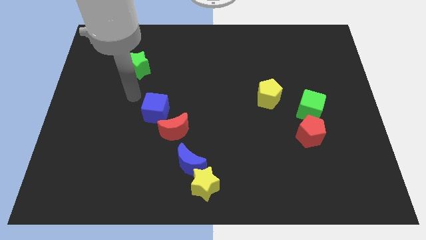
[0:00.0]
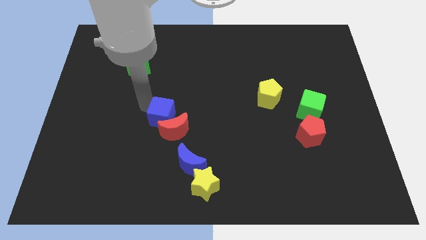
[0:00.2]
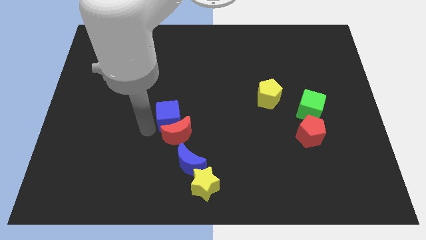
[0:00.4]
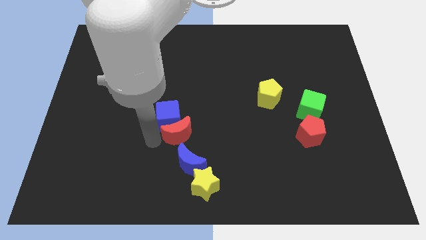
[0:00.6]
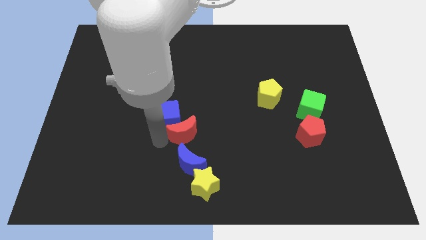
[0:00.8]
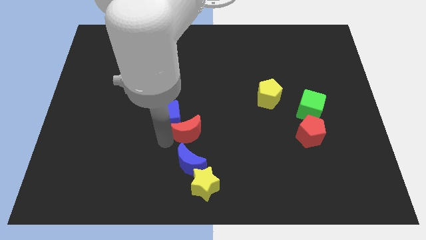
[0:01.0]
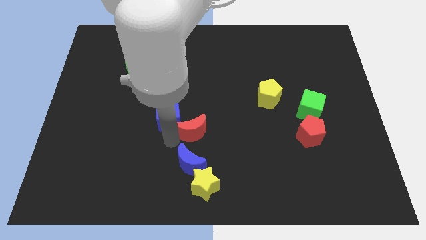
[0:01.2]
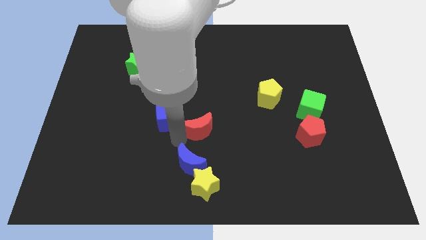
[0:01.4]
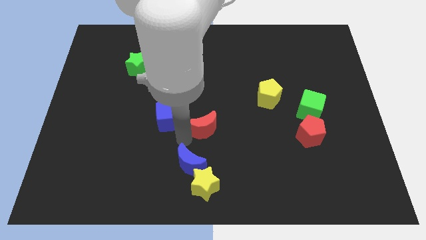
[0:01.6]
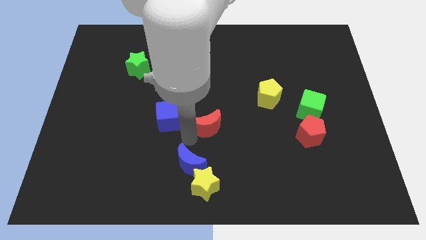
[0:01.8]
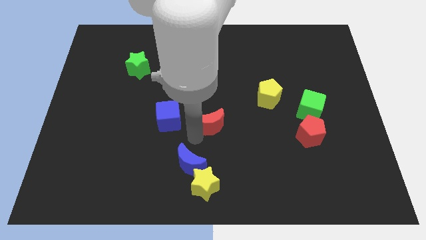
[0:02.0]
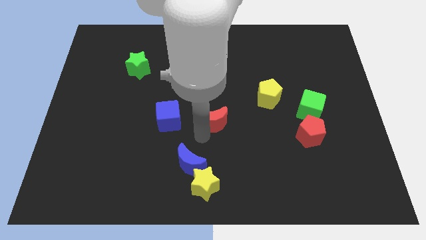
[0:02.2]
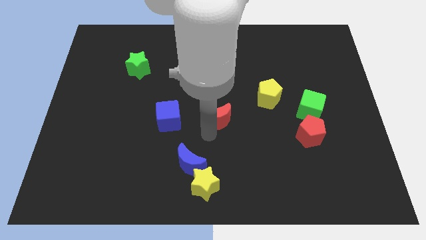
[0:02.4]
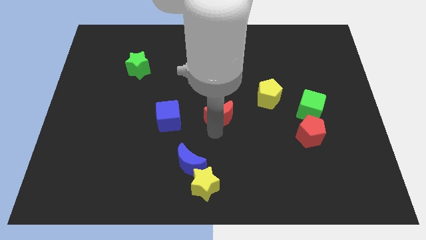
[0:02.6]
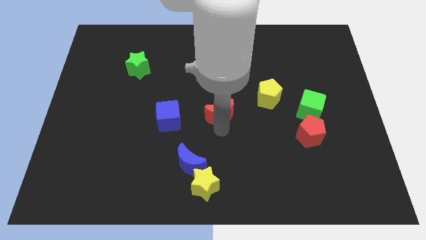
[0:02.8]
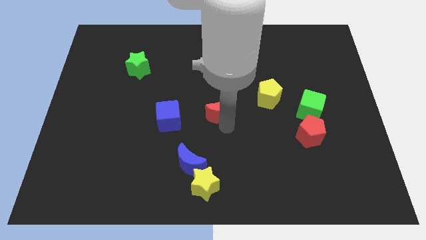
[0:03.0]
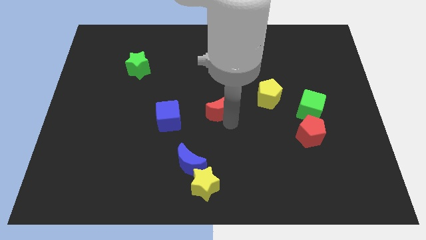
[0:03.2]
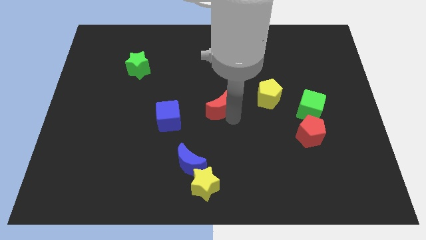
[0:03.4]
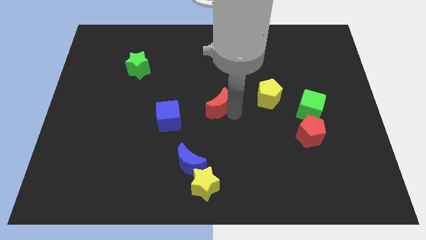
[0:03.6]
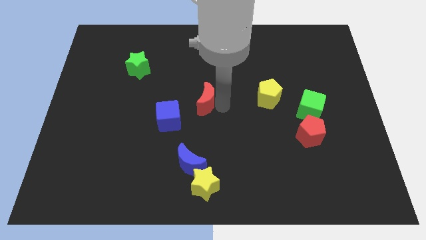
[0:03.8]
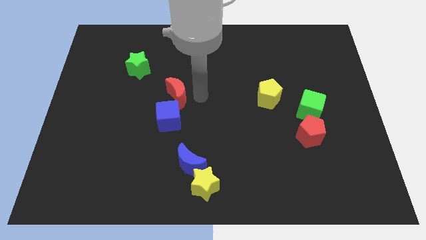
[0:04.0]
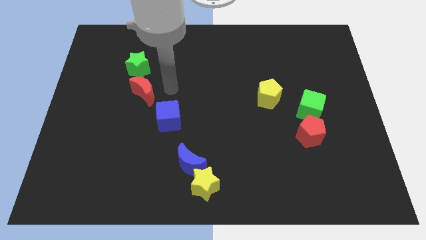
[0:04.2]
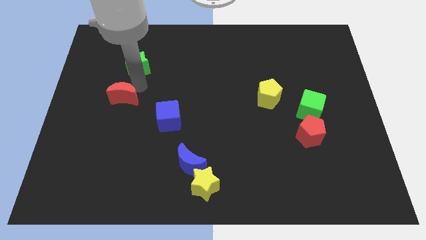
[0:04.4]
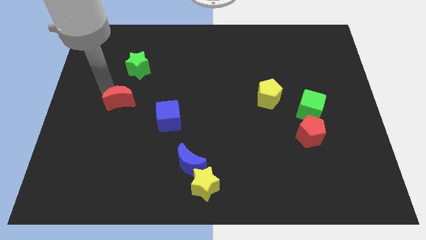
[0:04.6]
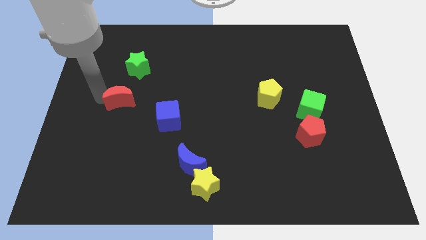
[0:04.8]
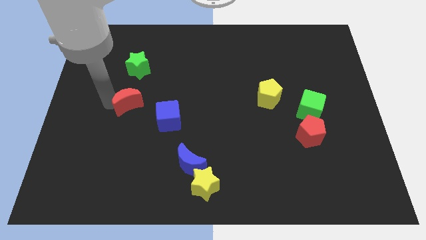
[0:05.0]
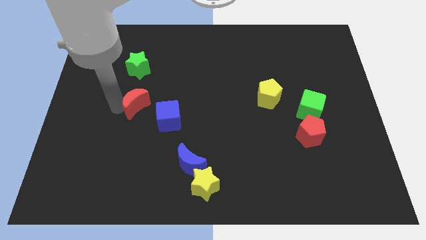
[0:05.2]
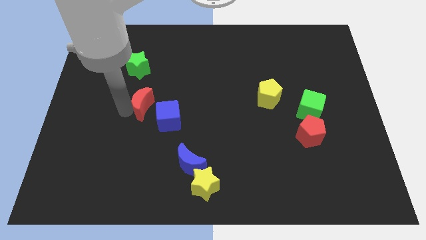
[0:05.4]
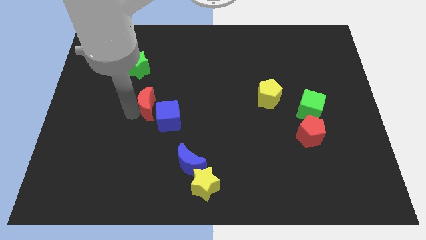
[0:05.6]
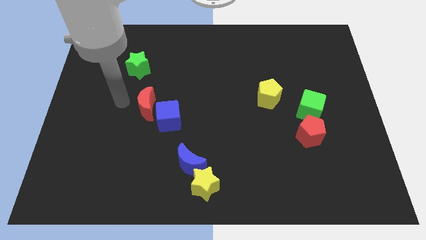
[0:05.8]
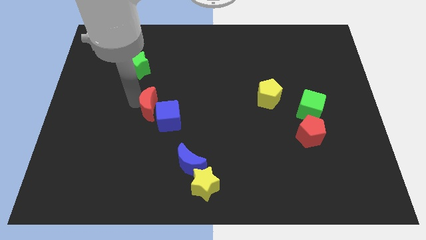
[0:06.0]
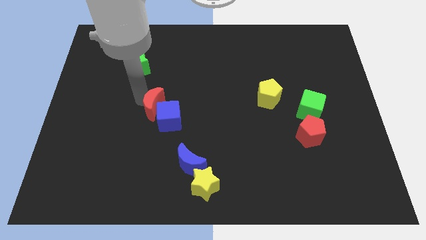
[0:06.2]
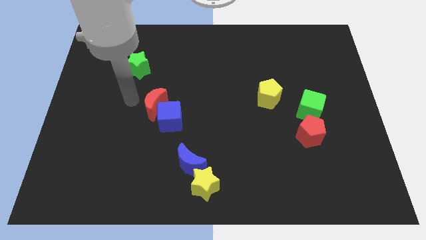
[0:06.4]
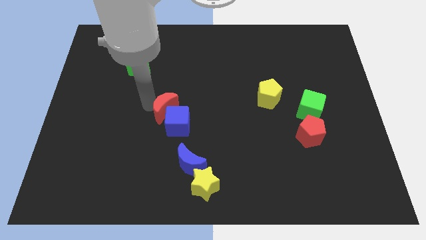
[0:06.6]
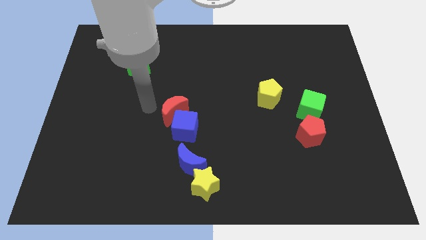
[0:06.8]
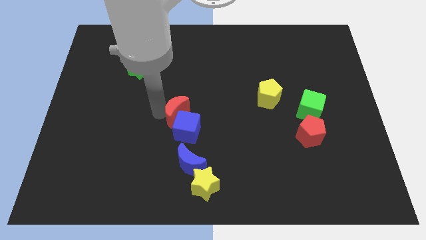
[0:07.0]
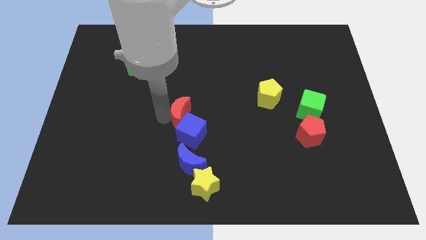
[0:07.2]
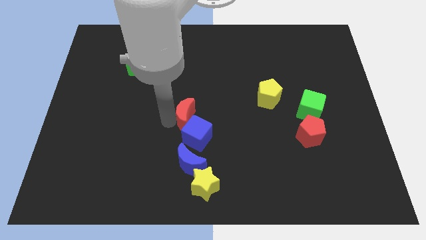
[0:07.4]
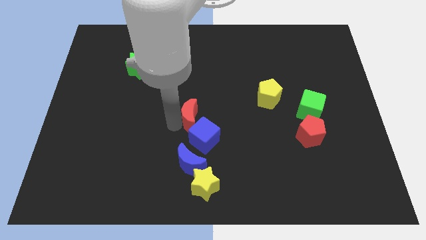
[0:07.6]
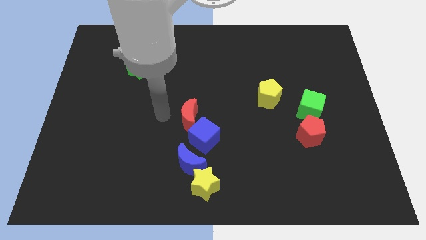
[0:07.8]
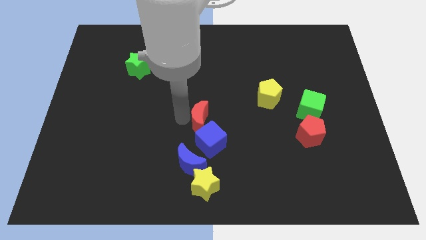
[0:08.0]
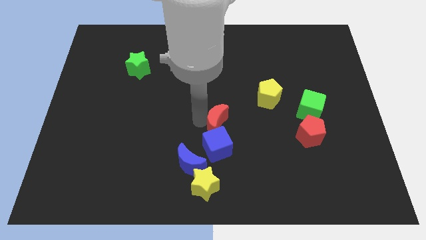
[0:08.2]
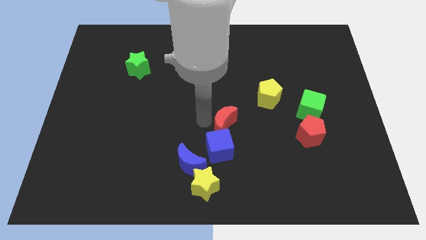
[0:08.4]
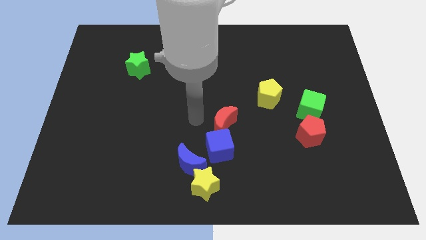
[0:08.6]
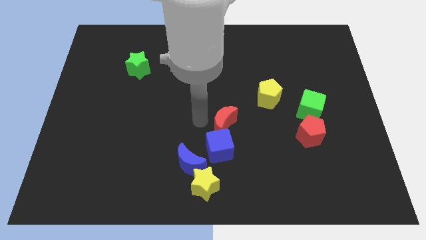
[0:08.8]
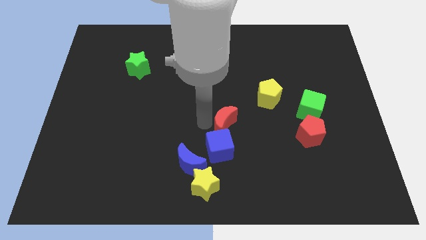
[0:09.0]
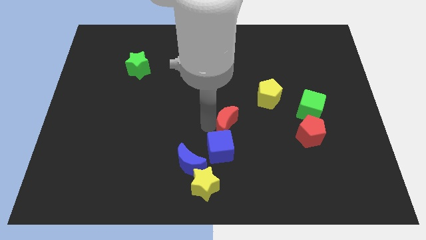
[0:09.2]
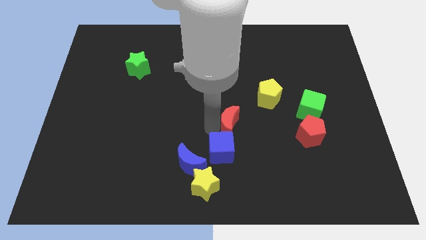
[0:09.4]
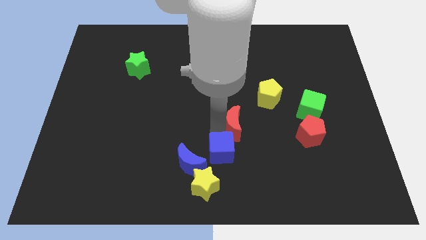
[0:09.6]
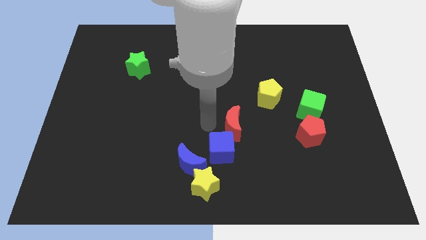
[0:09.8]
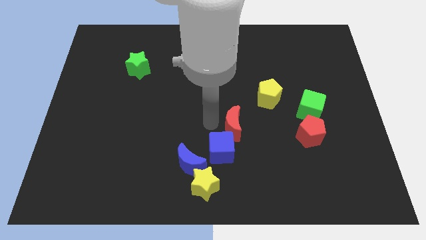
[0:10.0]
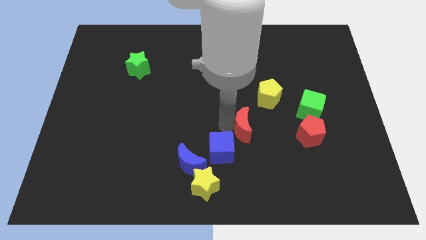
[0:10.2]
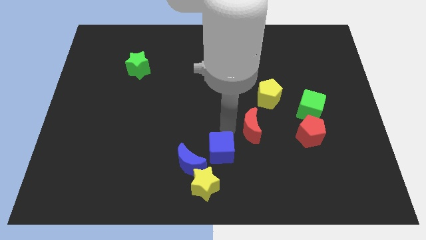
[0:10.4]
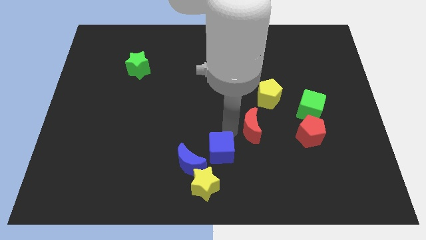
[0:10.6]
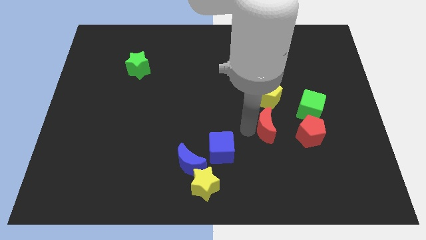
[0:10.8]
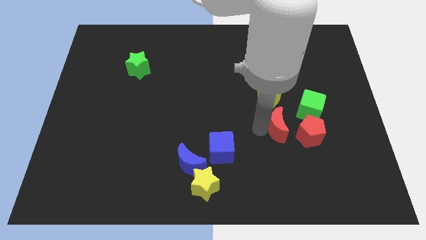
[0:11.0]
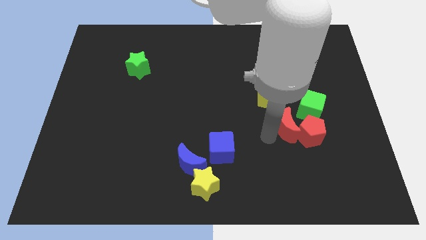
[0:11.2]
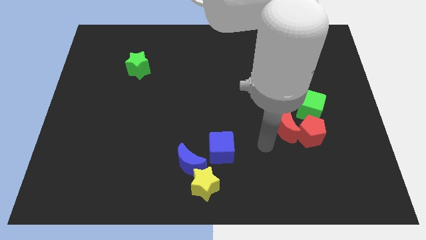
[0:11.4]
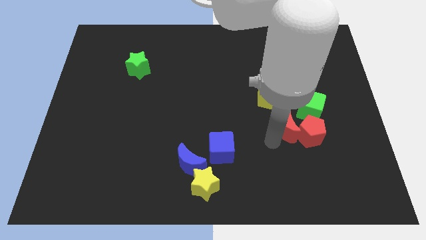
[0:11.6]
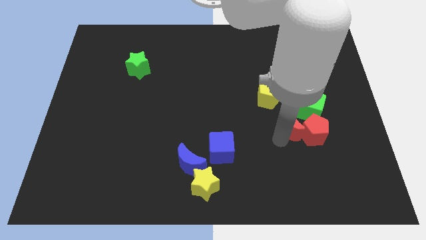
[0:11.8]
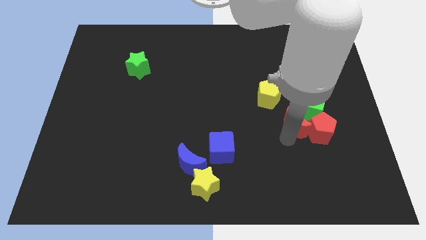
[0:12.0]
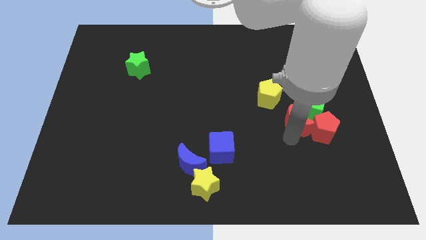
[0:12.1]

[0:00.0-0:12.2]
move the red moon towards the green cube

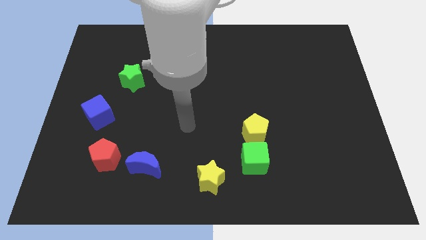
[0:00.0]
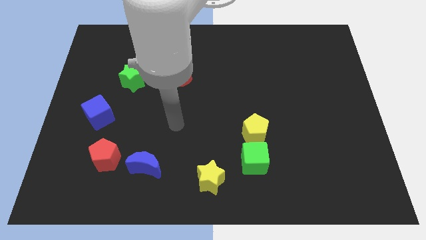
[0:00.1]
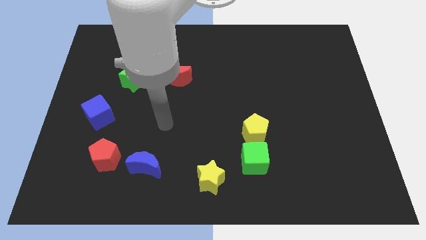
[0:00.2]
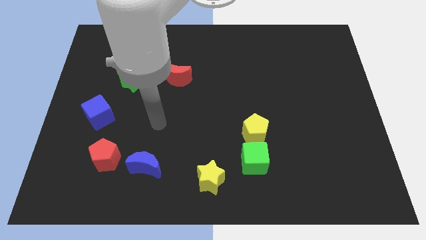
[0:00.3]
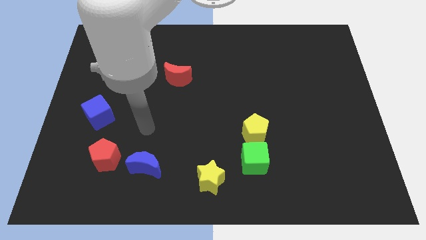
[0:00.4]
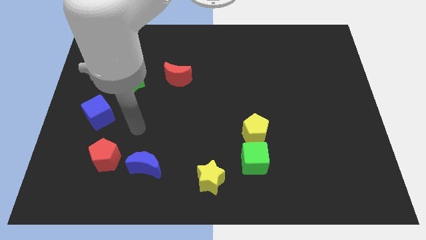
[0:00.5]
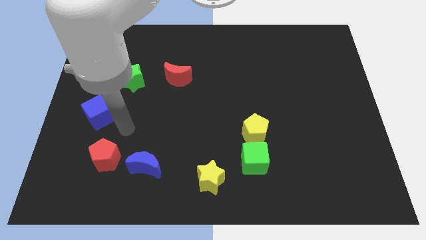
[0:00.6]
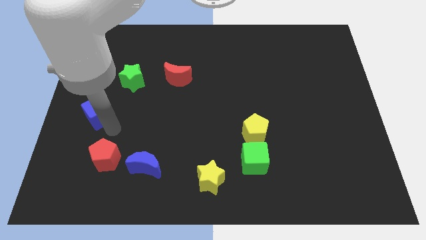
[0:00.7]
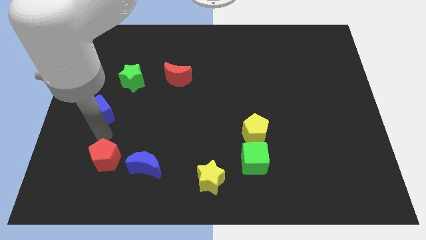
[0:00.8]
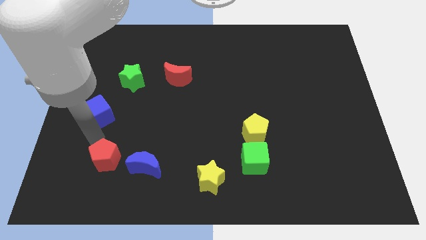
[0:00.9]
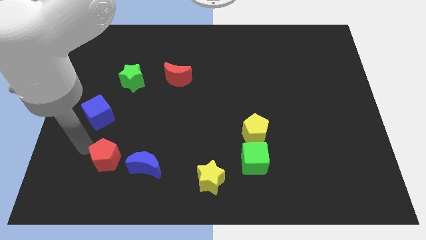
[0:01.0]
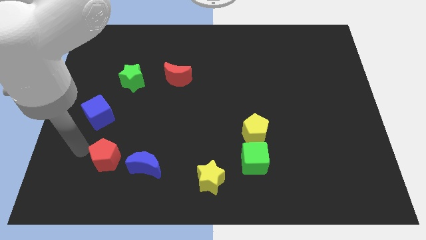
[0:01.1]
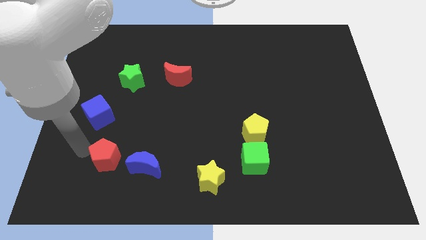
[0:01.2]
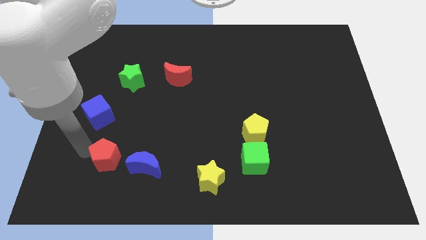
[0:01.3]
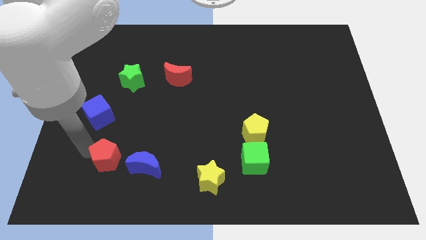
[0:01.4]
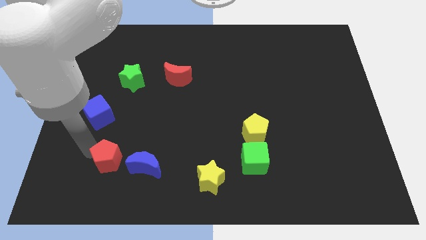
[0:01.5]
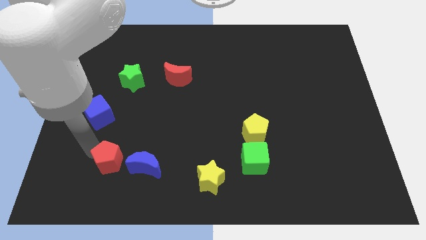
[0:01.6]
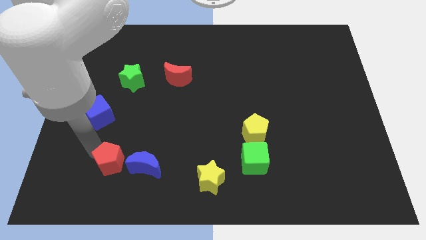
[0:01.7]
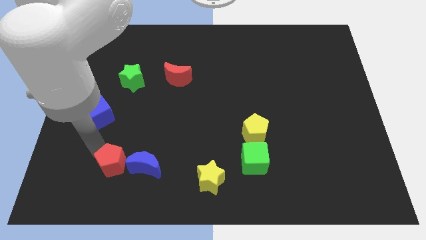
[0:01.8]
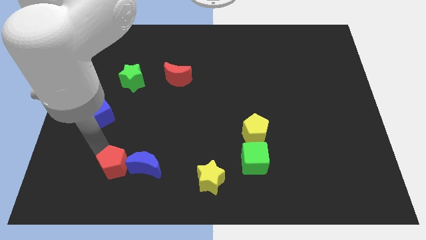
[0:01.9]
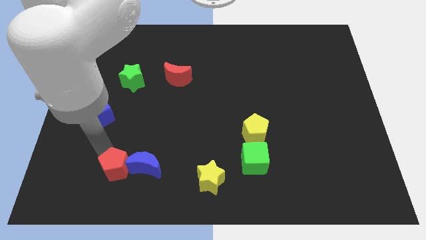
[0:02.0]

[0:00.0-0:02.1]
put the red pentagon to the blue moon
